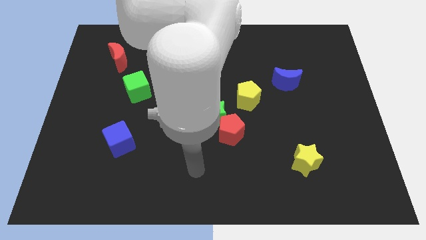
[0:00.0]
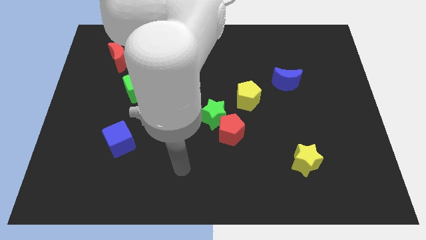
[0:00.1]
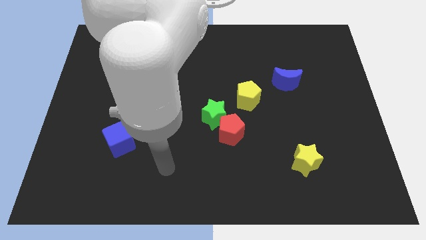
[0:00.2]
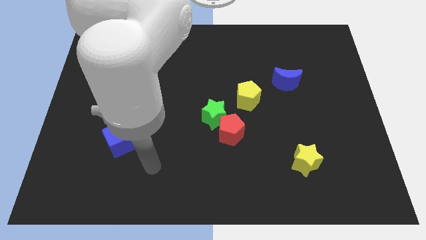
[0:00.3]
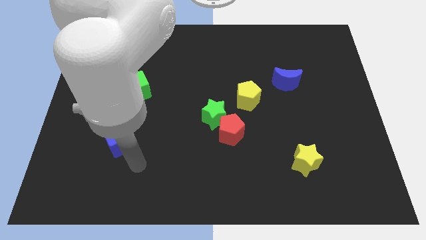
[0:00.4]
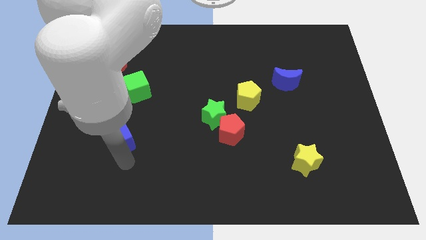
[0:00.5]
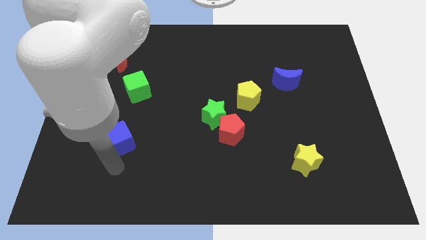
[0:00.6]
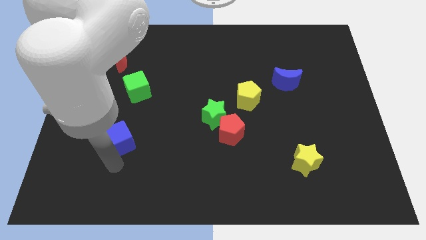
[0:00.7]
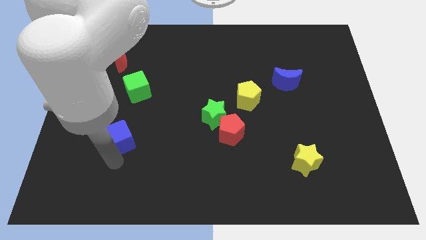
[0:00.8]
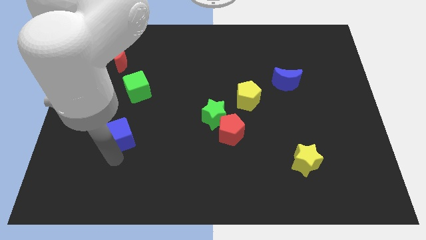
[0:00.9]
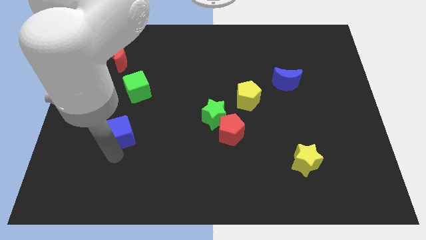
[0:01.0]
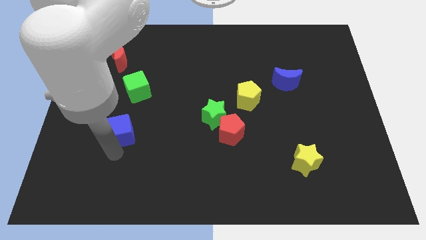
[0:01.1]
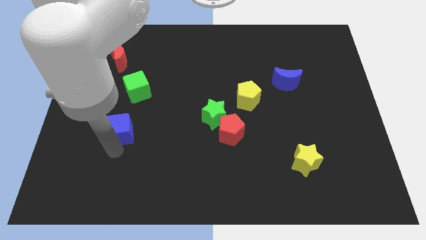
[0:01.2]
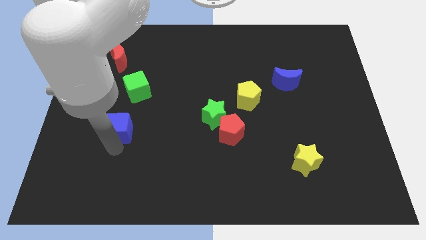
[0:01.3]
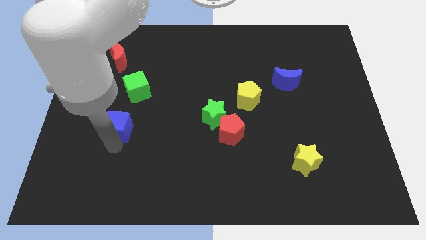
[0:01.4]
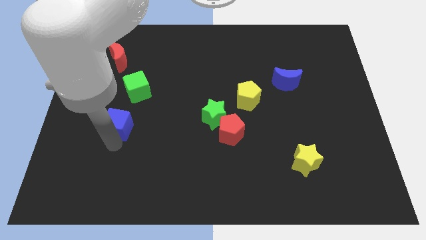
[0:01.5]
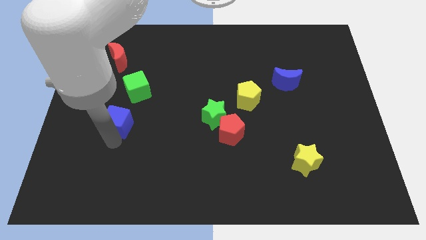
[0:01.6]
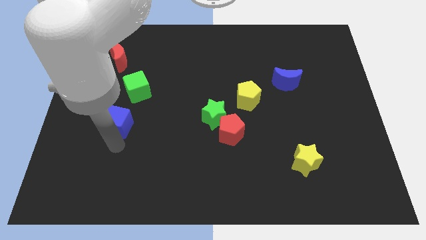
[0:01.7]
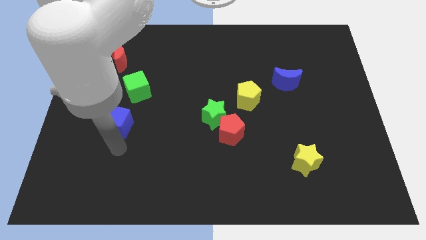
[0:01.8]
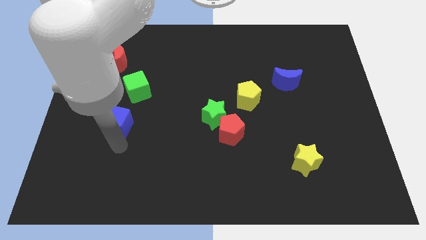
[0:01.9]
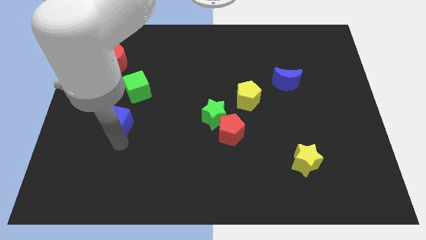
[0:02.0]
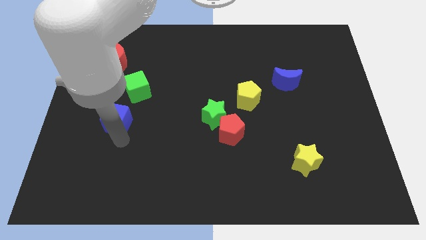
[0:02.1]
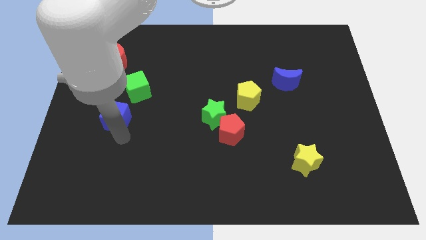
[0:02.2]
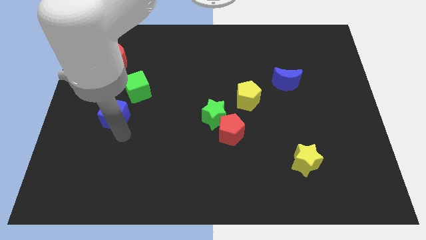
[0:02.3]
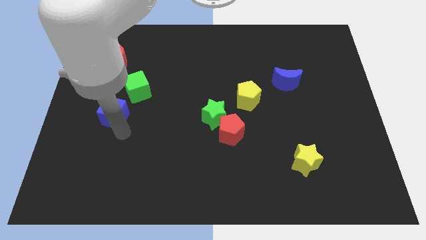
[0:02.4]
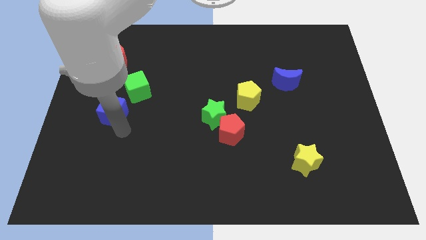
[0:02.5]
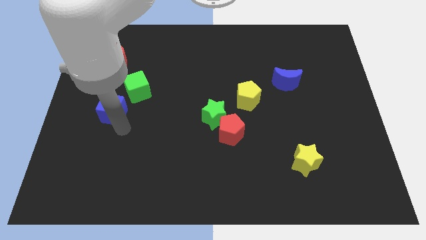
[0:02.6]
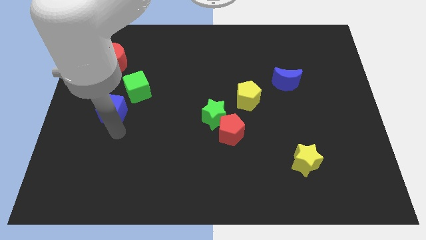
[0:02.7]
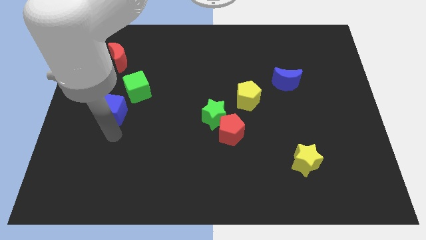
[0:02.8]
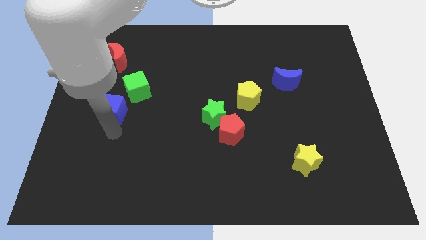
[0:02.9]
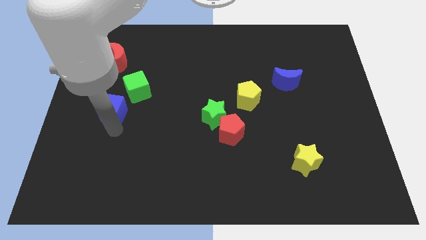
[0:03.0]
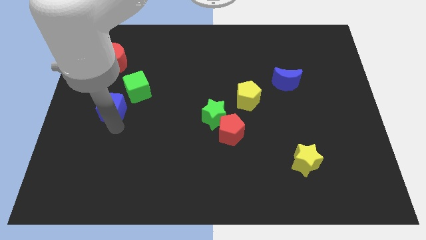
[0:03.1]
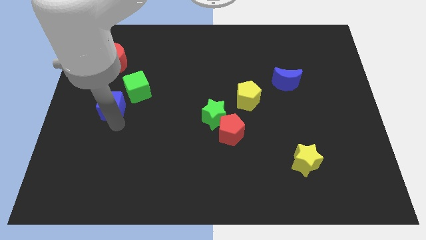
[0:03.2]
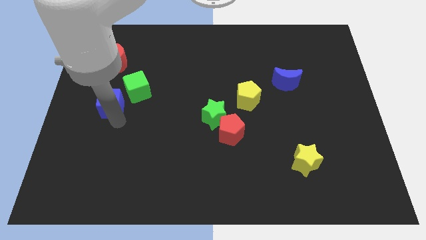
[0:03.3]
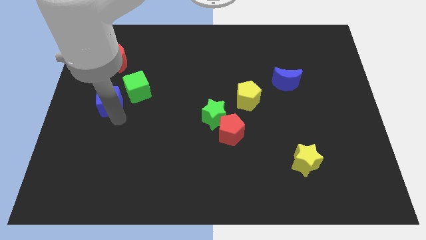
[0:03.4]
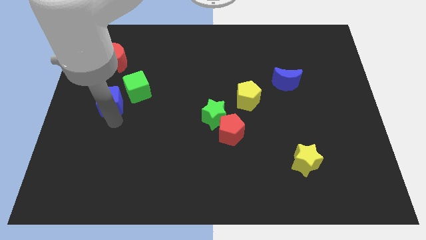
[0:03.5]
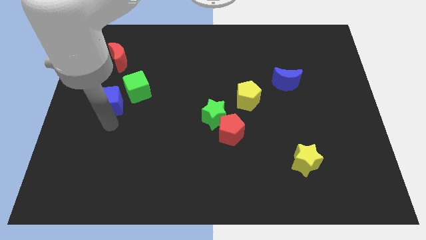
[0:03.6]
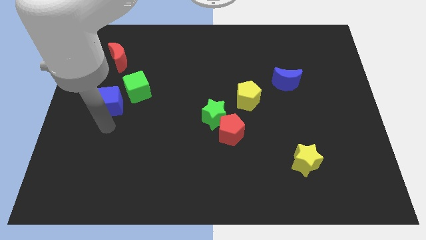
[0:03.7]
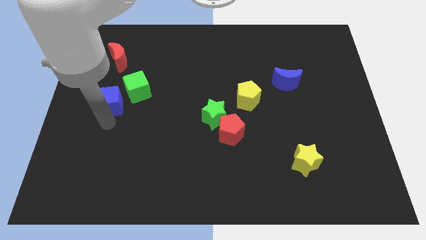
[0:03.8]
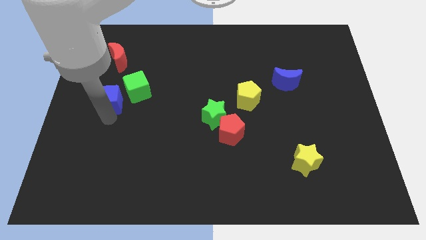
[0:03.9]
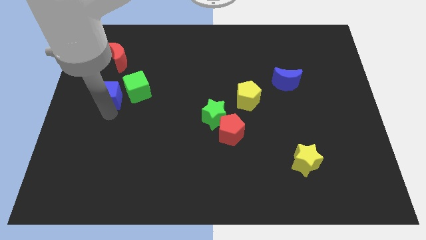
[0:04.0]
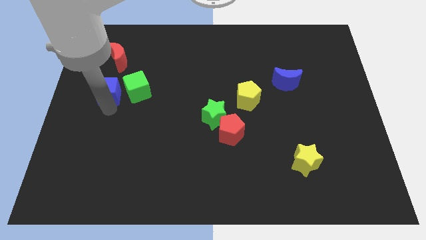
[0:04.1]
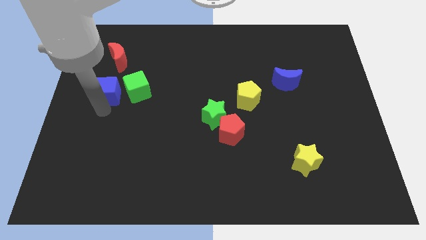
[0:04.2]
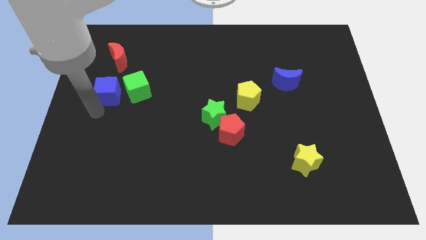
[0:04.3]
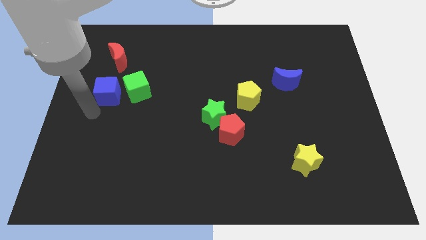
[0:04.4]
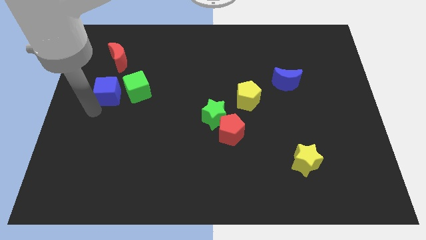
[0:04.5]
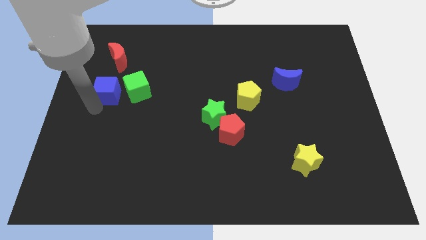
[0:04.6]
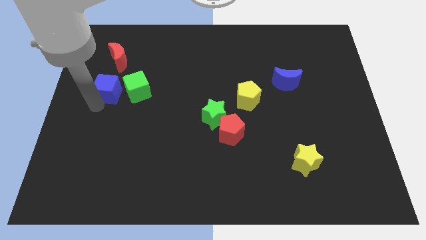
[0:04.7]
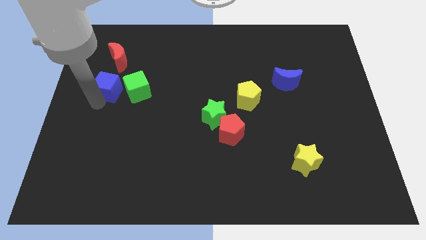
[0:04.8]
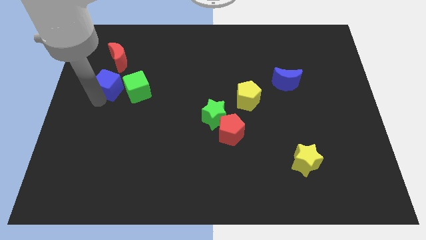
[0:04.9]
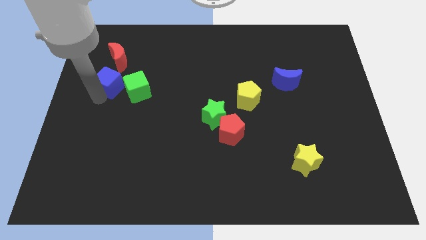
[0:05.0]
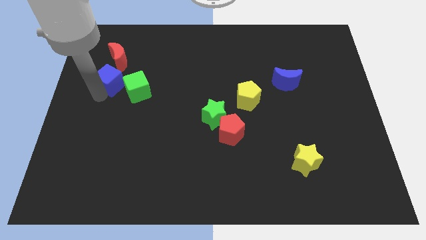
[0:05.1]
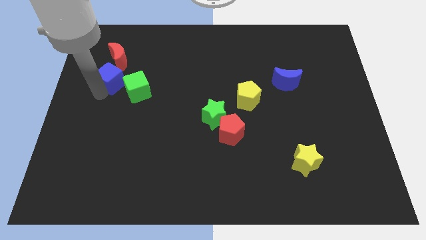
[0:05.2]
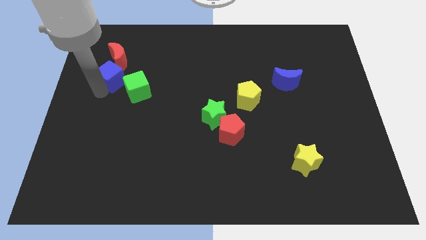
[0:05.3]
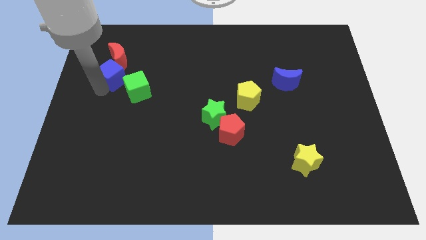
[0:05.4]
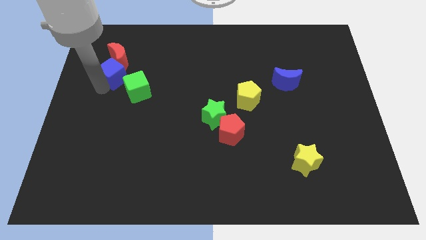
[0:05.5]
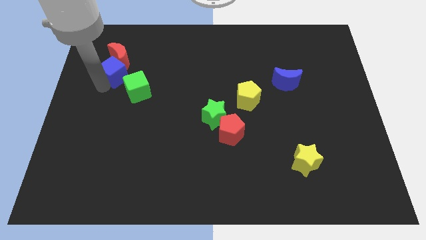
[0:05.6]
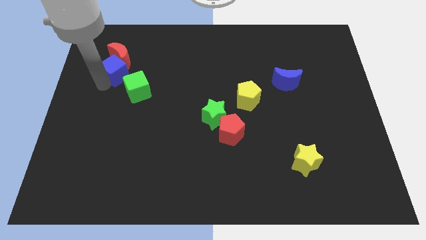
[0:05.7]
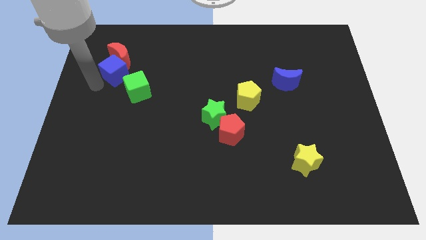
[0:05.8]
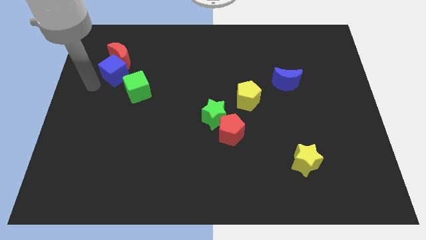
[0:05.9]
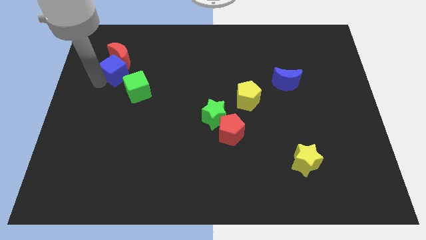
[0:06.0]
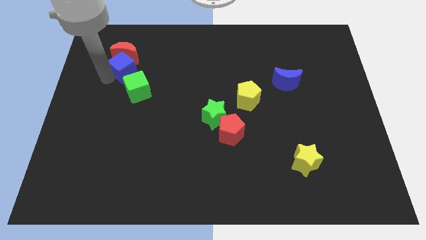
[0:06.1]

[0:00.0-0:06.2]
move the blue cube to the top of the green cube
